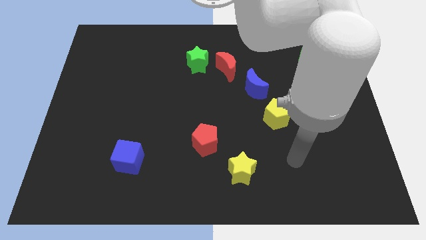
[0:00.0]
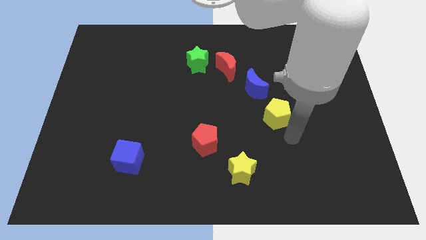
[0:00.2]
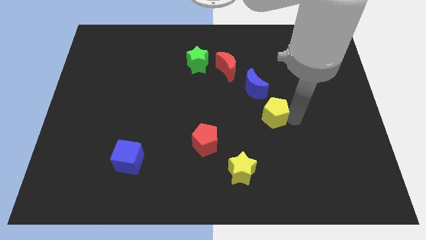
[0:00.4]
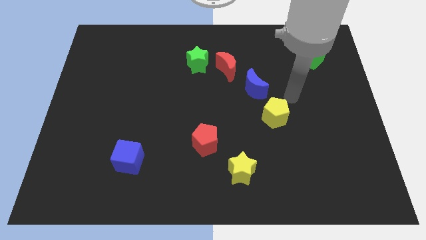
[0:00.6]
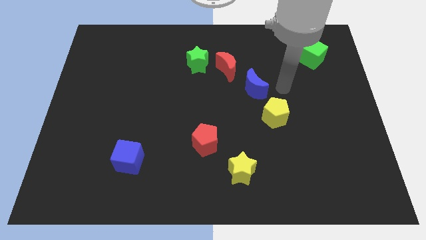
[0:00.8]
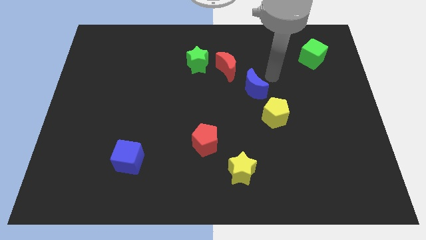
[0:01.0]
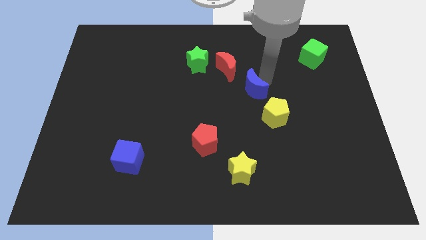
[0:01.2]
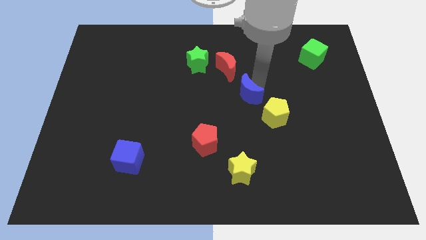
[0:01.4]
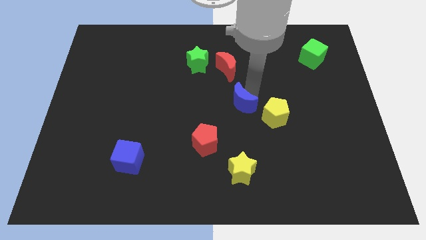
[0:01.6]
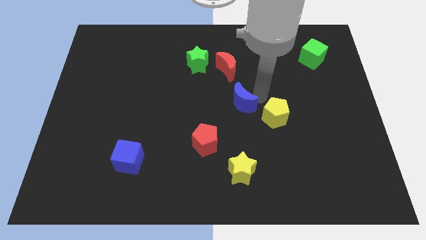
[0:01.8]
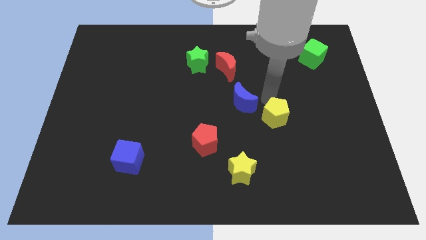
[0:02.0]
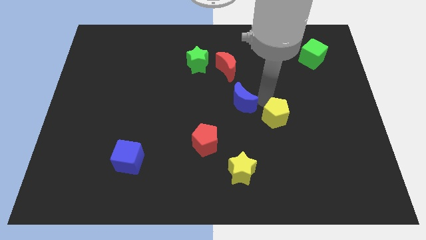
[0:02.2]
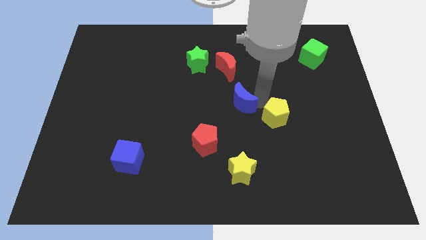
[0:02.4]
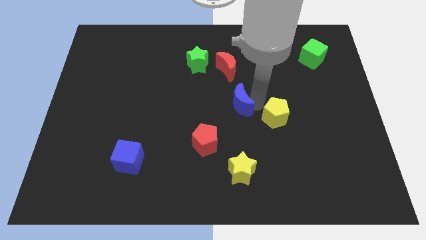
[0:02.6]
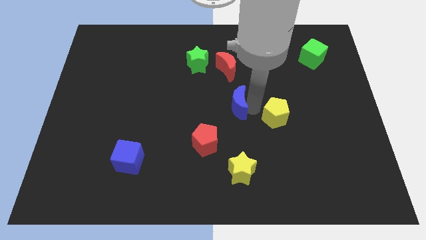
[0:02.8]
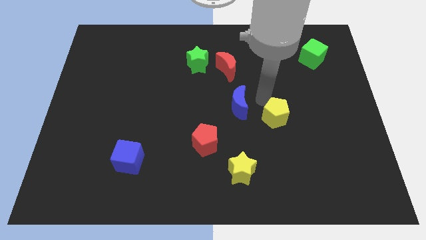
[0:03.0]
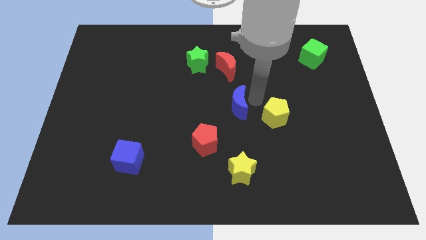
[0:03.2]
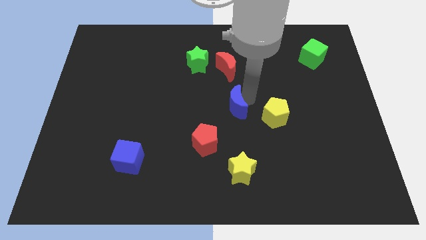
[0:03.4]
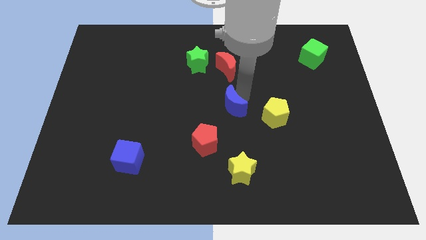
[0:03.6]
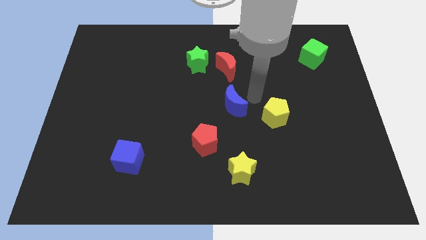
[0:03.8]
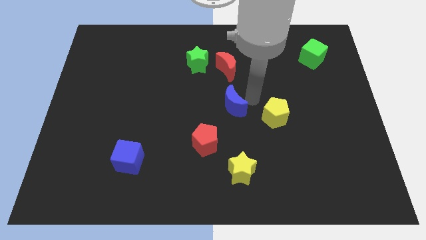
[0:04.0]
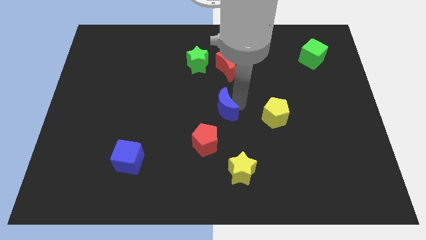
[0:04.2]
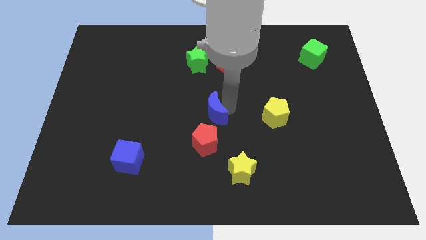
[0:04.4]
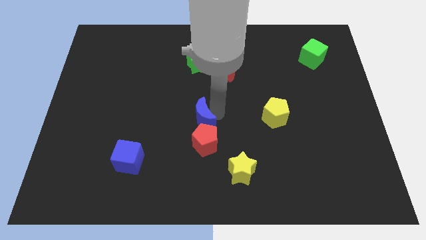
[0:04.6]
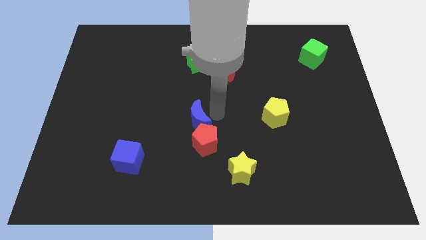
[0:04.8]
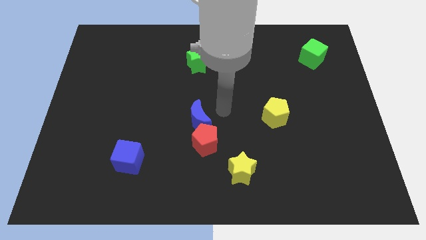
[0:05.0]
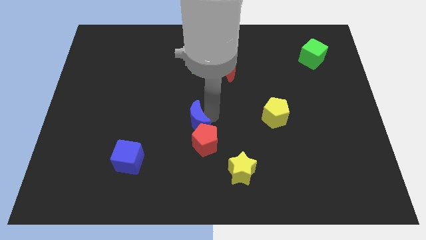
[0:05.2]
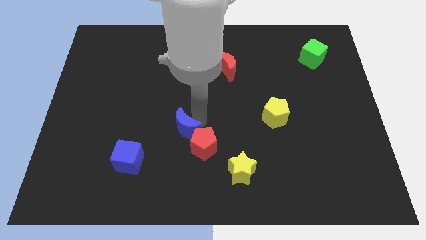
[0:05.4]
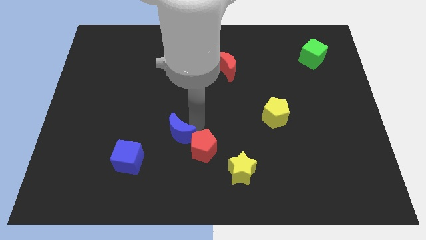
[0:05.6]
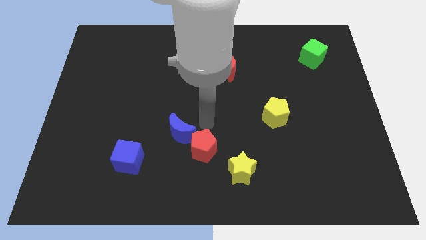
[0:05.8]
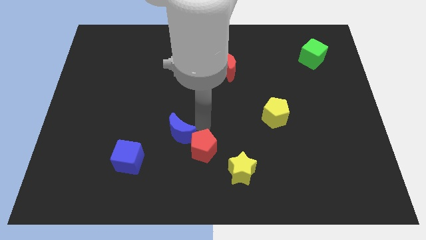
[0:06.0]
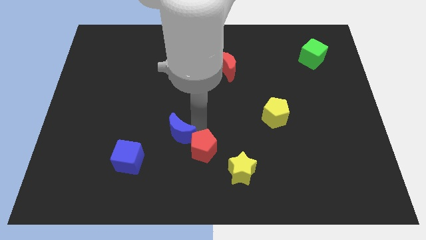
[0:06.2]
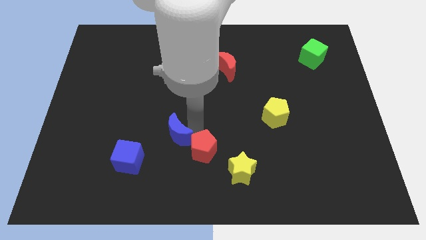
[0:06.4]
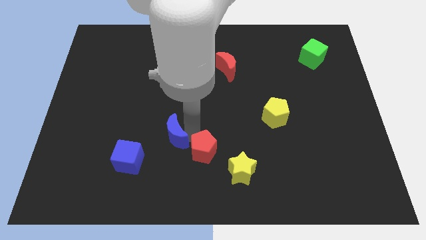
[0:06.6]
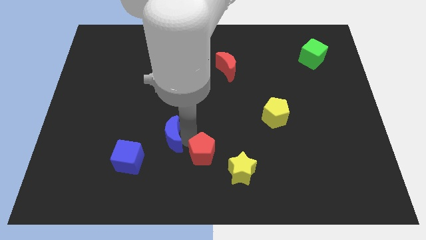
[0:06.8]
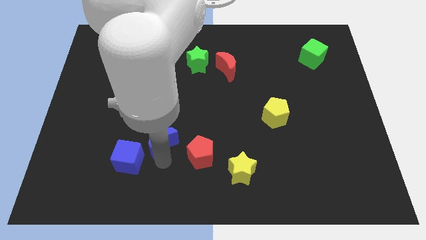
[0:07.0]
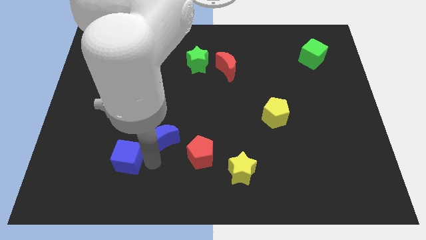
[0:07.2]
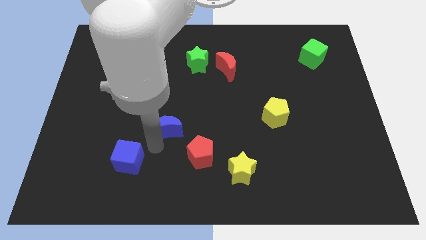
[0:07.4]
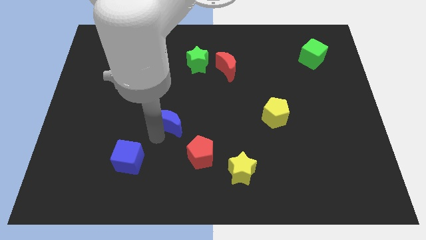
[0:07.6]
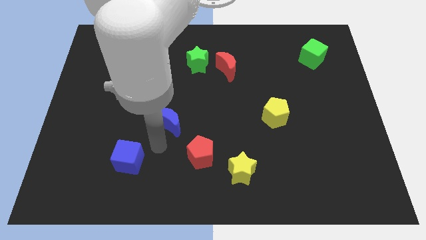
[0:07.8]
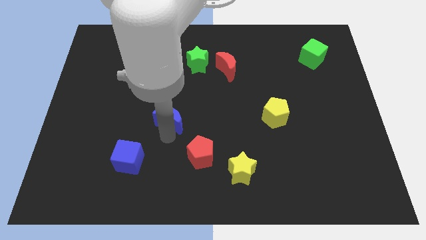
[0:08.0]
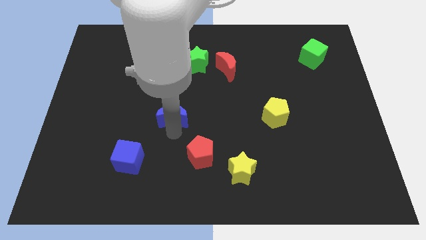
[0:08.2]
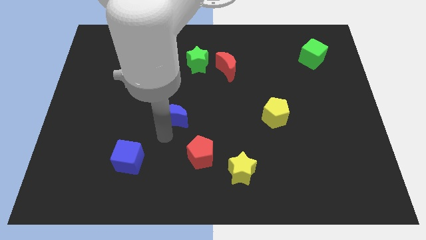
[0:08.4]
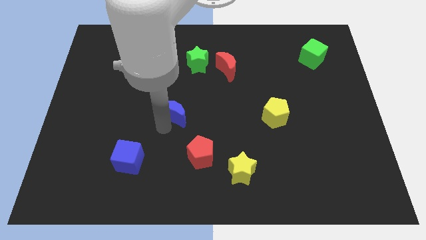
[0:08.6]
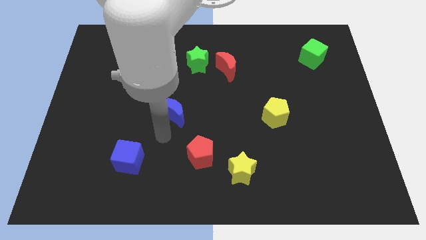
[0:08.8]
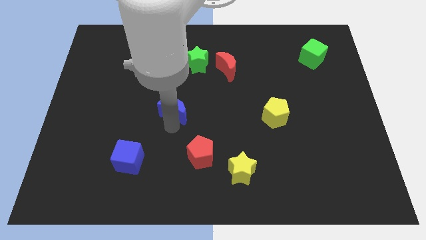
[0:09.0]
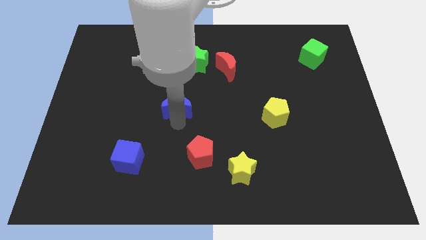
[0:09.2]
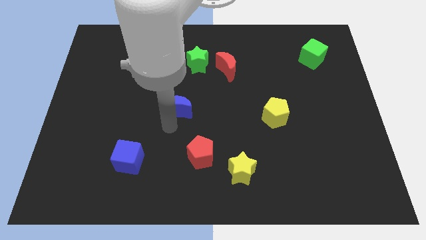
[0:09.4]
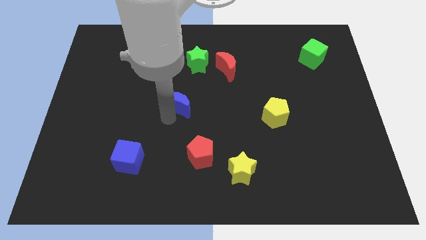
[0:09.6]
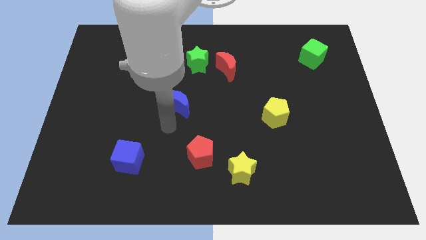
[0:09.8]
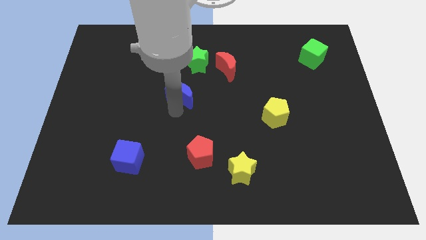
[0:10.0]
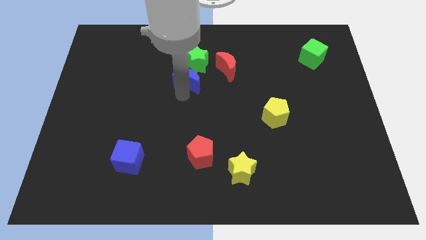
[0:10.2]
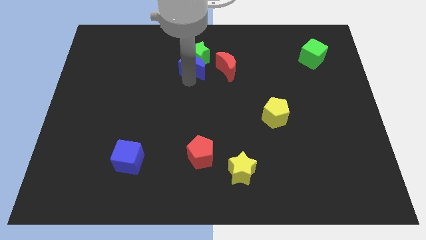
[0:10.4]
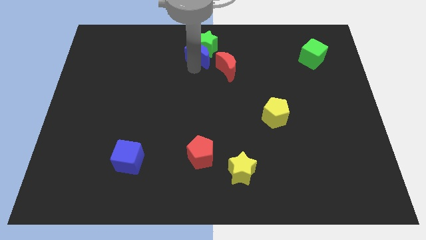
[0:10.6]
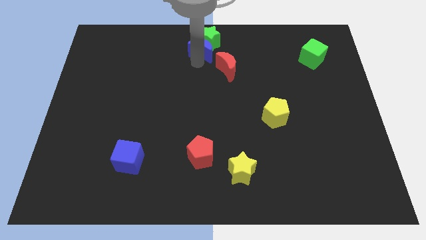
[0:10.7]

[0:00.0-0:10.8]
put the blue moon to the top side

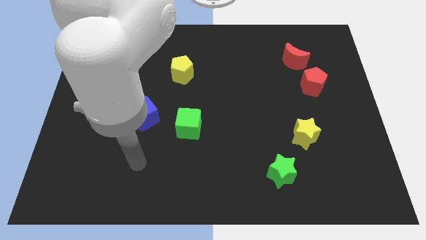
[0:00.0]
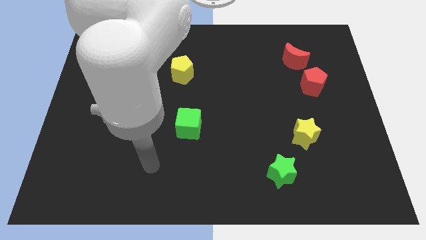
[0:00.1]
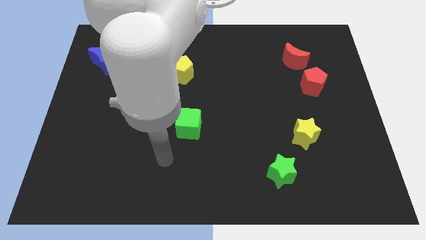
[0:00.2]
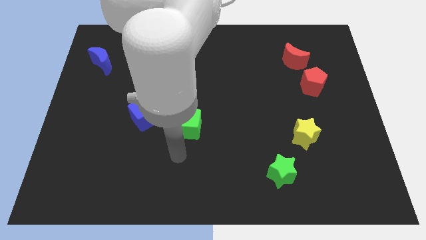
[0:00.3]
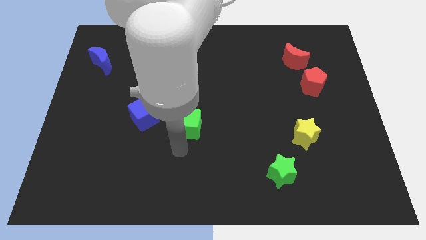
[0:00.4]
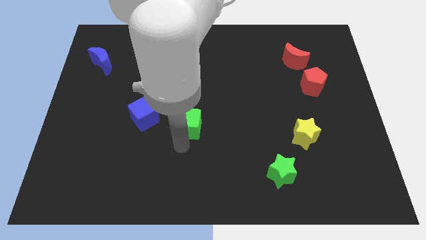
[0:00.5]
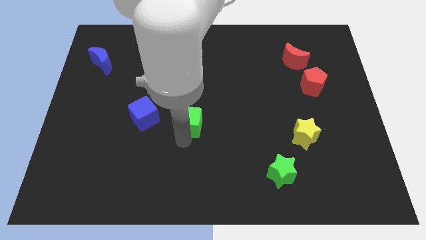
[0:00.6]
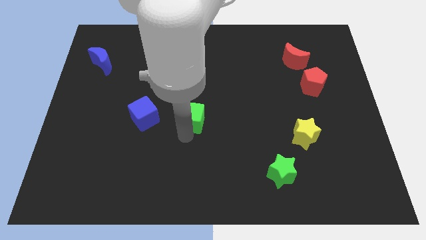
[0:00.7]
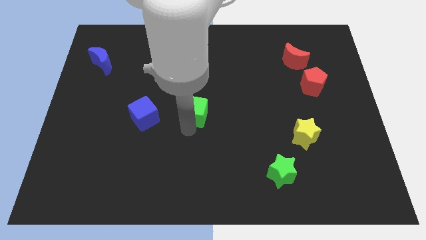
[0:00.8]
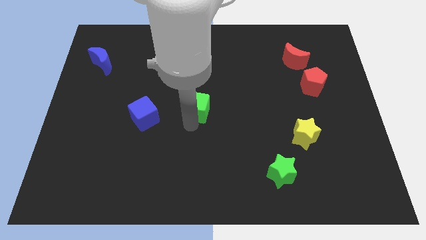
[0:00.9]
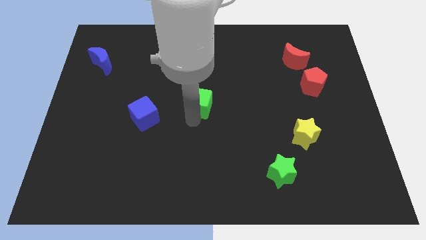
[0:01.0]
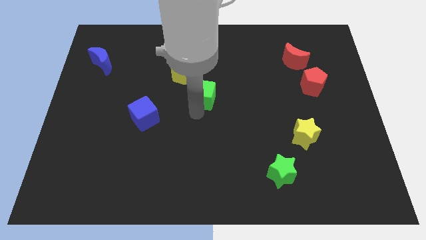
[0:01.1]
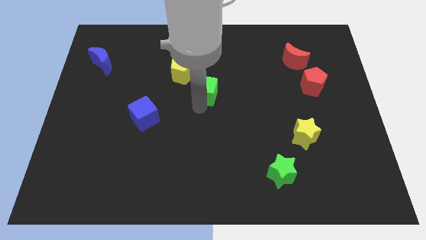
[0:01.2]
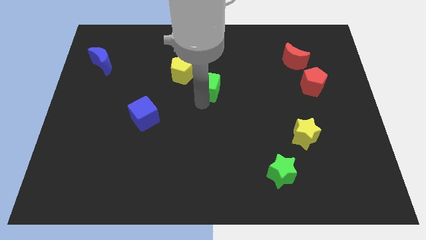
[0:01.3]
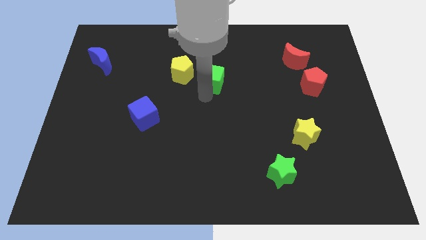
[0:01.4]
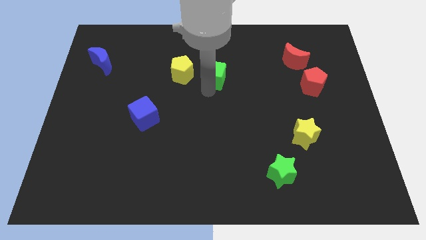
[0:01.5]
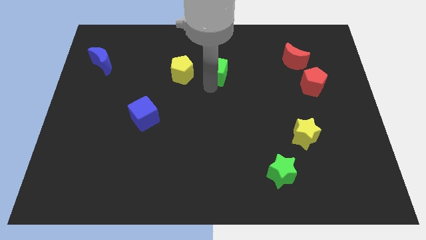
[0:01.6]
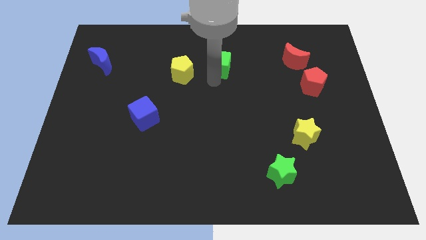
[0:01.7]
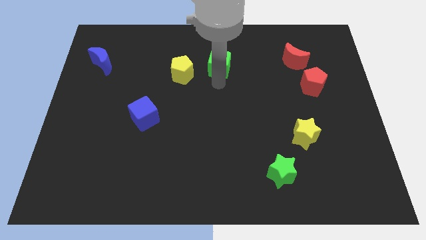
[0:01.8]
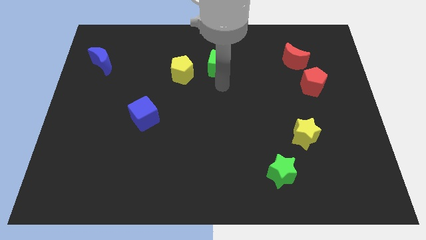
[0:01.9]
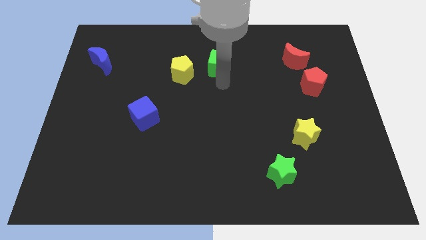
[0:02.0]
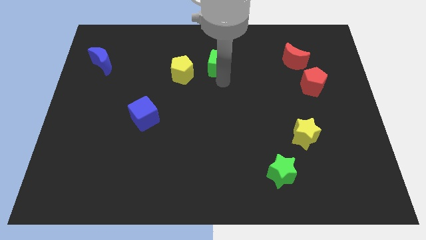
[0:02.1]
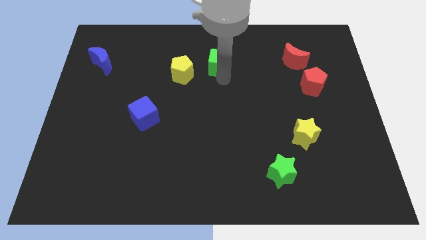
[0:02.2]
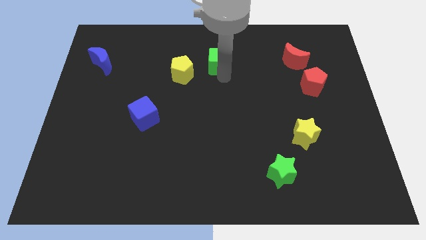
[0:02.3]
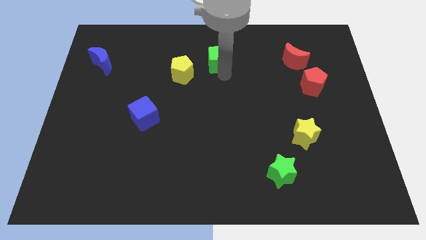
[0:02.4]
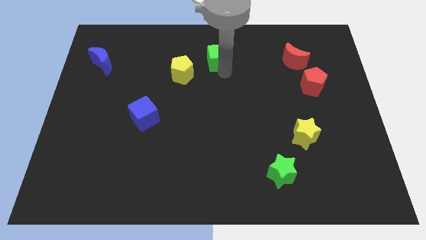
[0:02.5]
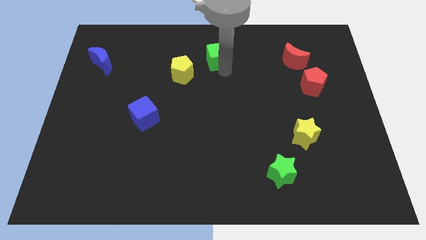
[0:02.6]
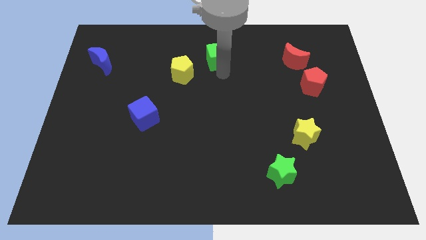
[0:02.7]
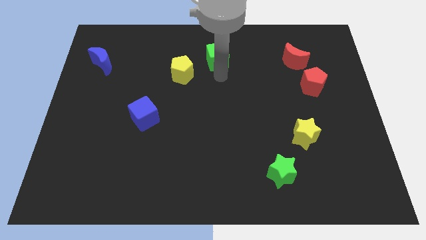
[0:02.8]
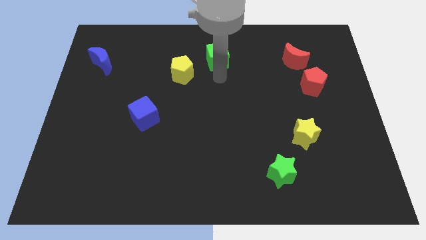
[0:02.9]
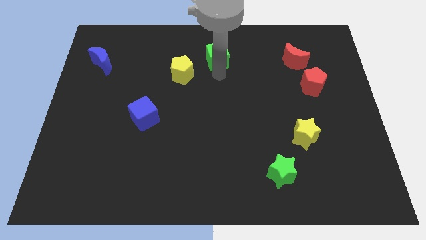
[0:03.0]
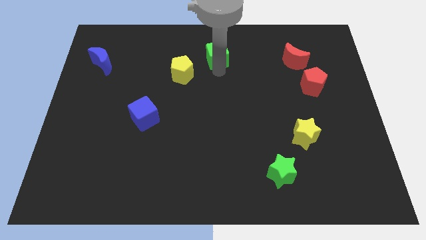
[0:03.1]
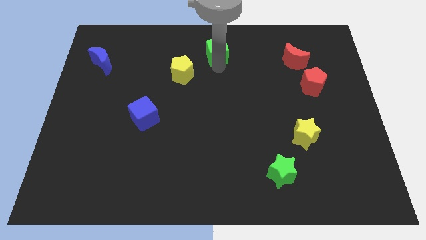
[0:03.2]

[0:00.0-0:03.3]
put the green cube to the top side
